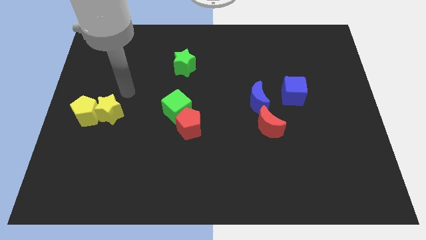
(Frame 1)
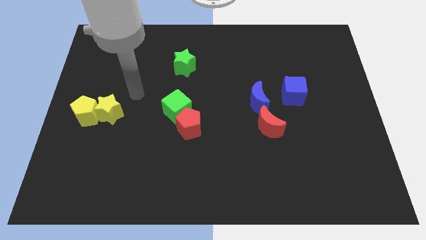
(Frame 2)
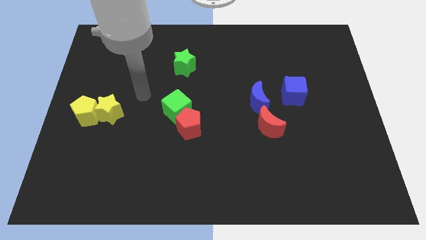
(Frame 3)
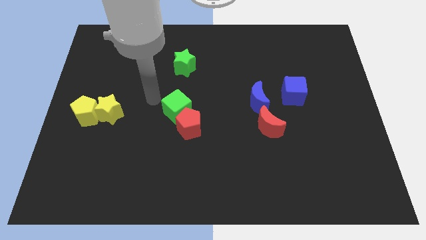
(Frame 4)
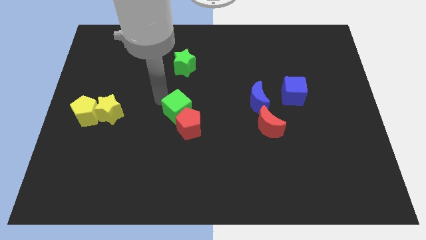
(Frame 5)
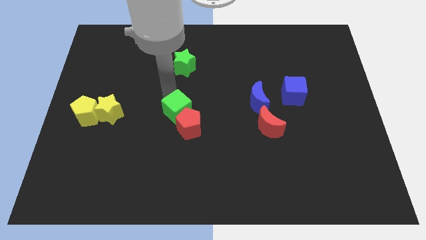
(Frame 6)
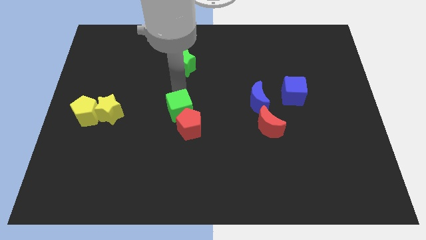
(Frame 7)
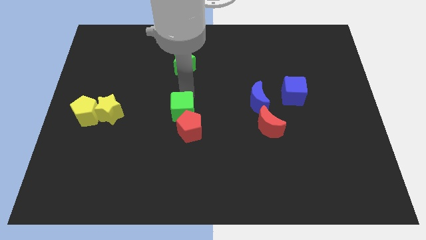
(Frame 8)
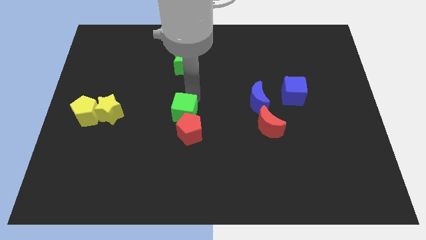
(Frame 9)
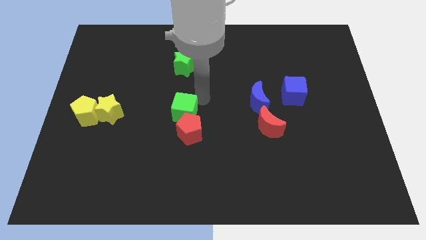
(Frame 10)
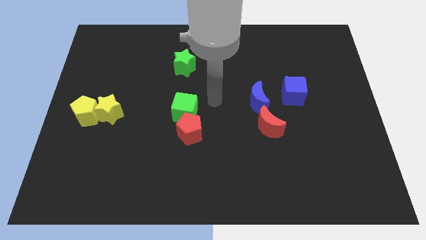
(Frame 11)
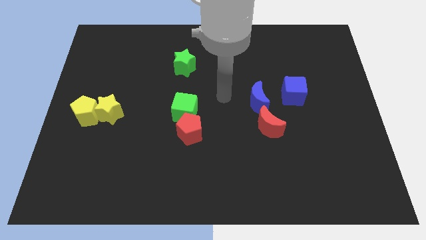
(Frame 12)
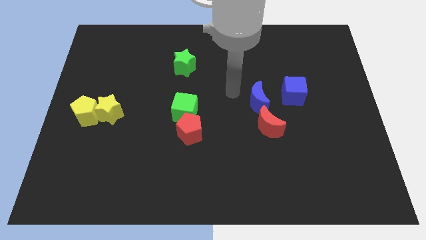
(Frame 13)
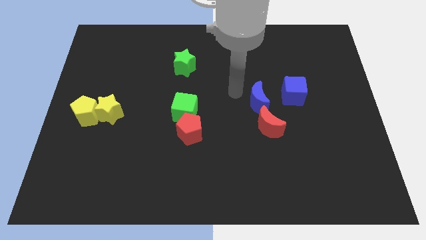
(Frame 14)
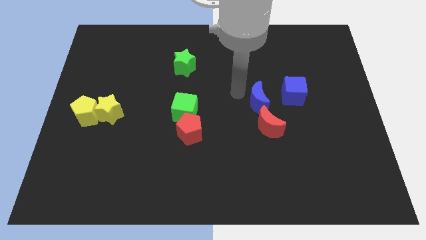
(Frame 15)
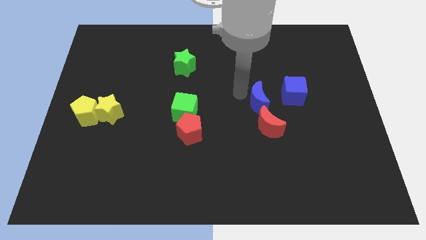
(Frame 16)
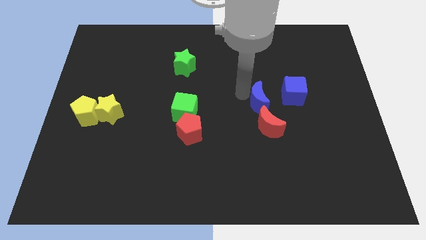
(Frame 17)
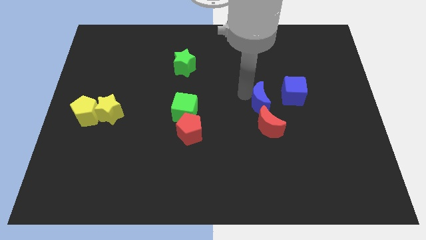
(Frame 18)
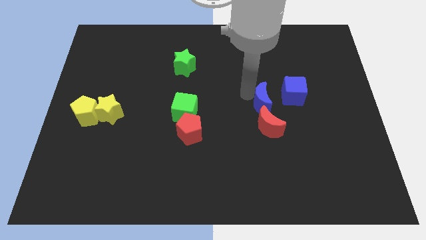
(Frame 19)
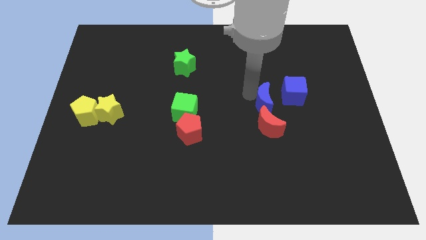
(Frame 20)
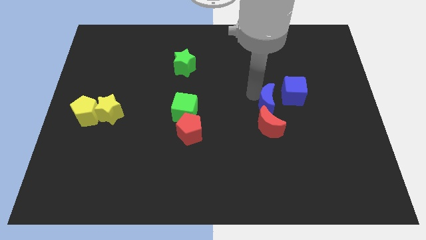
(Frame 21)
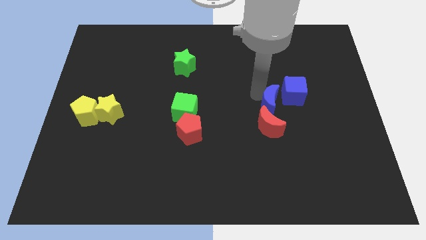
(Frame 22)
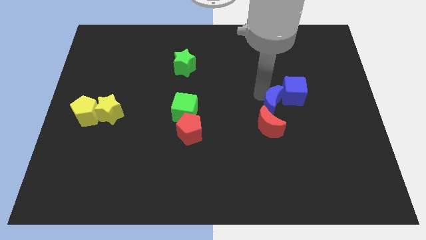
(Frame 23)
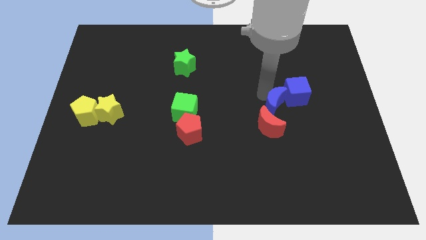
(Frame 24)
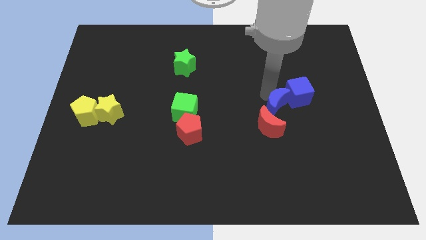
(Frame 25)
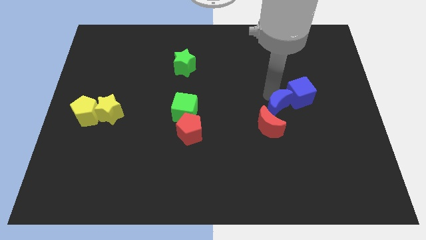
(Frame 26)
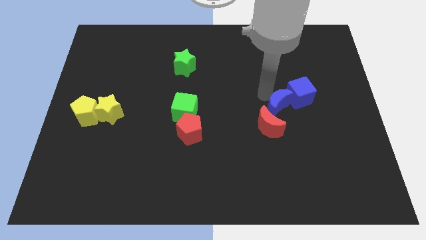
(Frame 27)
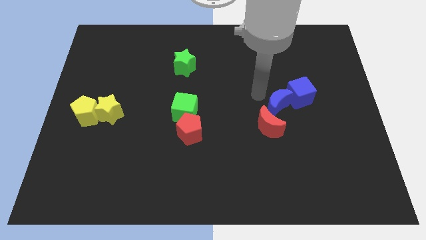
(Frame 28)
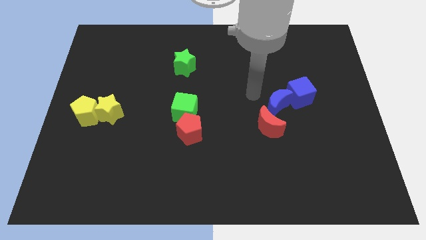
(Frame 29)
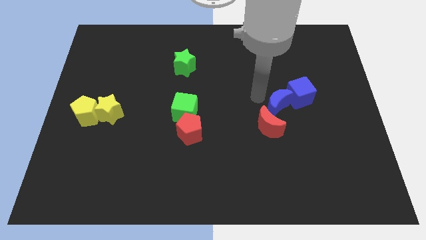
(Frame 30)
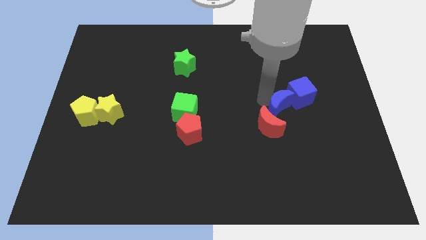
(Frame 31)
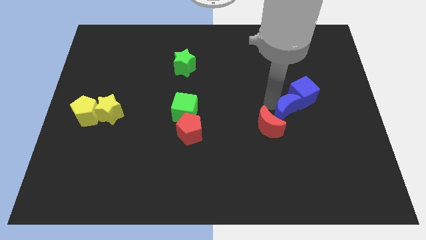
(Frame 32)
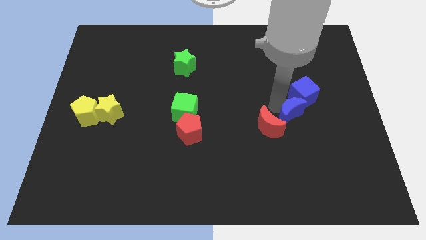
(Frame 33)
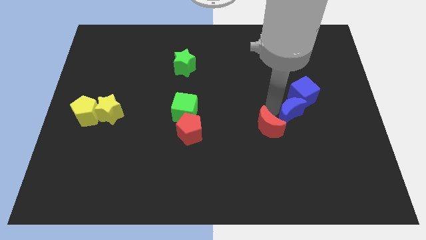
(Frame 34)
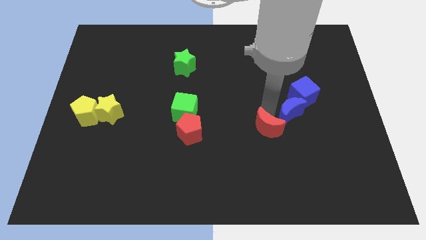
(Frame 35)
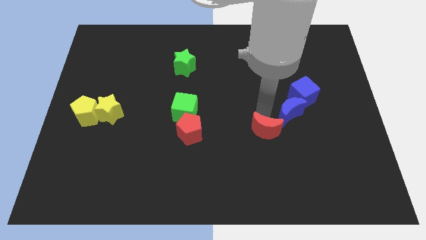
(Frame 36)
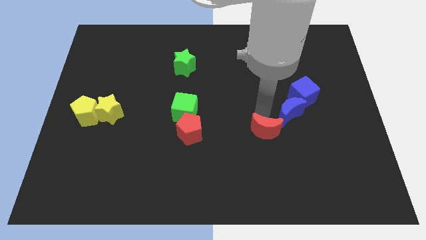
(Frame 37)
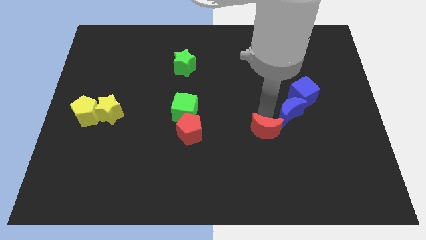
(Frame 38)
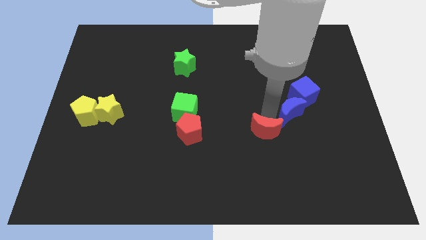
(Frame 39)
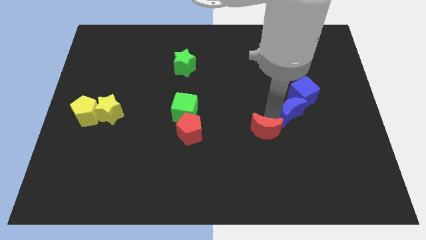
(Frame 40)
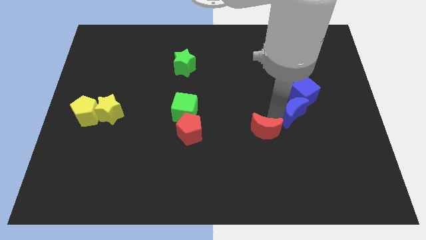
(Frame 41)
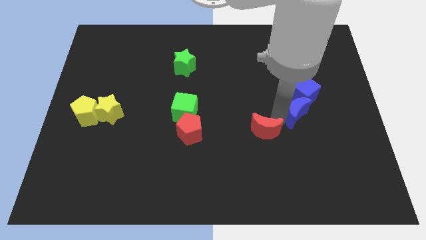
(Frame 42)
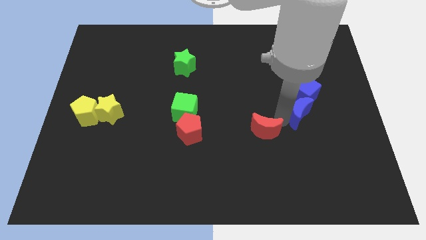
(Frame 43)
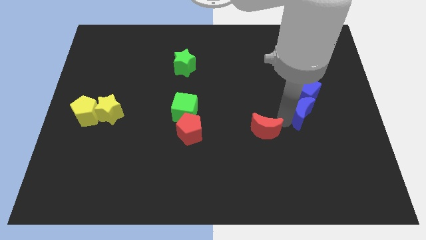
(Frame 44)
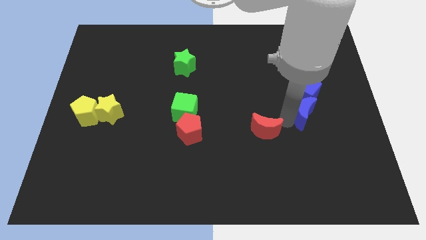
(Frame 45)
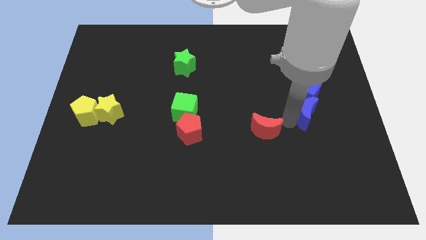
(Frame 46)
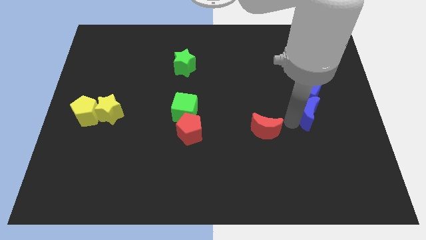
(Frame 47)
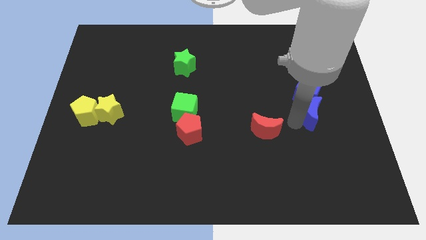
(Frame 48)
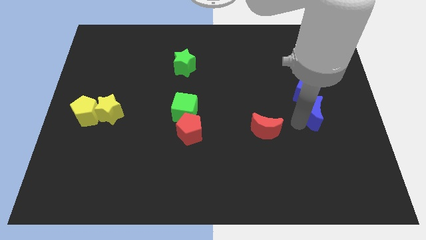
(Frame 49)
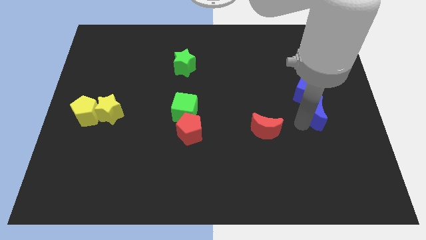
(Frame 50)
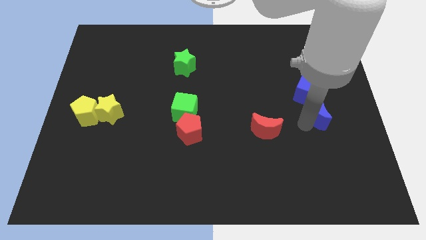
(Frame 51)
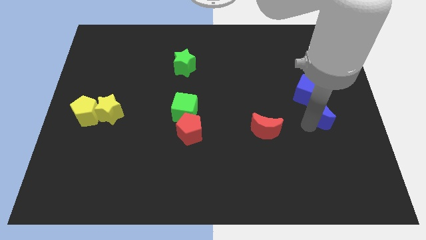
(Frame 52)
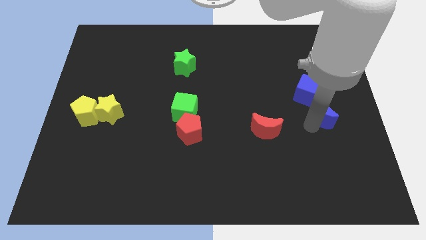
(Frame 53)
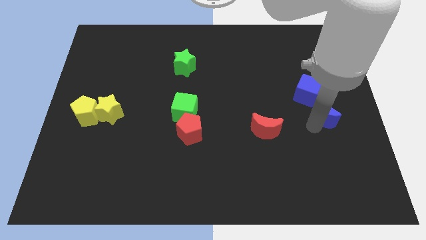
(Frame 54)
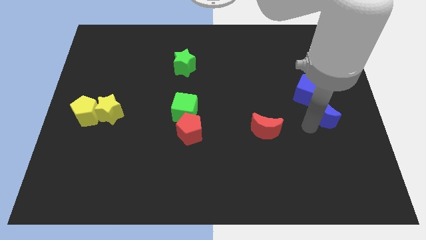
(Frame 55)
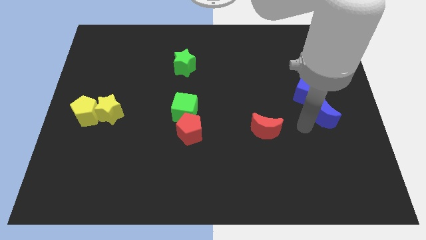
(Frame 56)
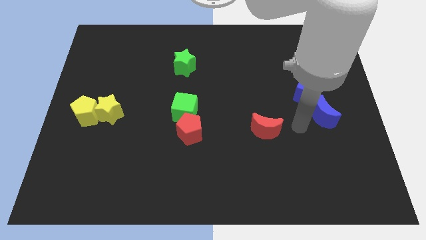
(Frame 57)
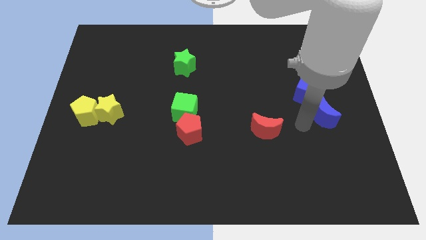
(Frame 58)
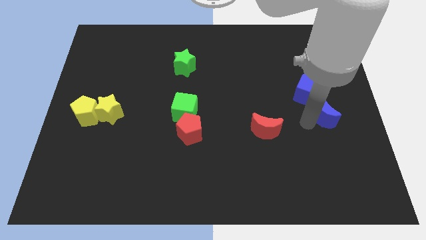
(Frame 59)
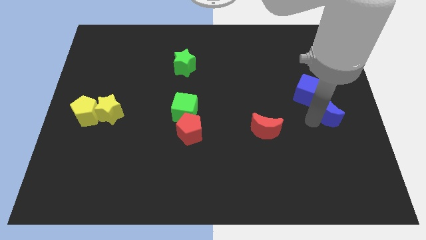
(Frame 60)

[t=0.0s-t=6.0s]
put the blue moon to the right side of the board
